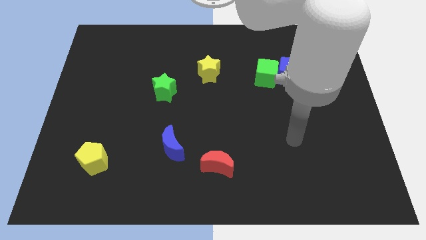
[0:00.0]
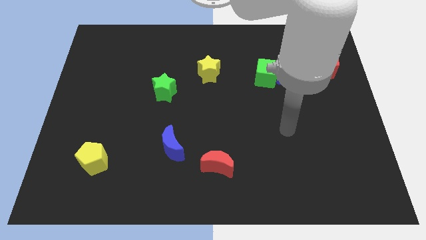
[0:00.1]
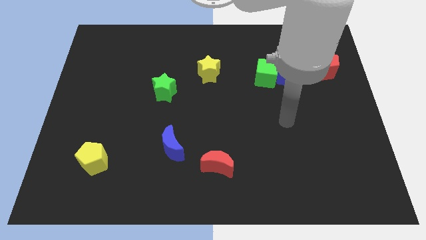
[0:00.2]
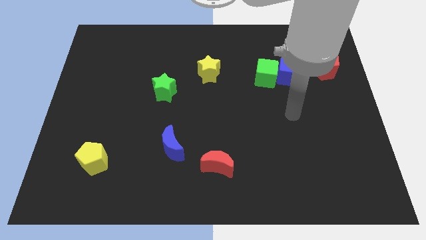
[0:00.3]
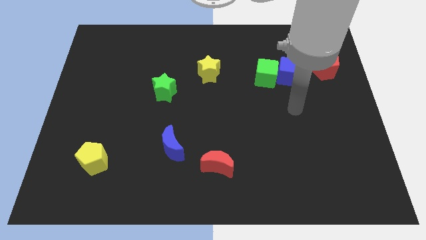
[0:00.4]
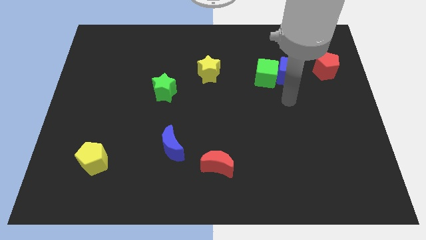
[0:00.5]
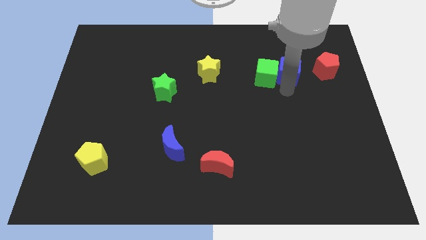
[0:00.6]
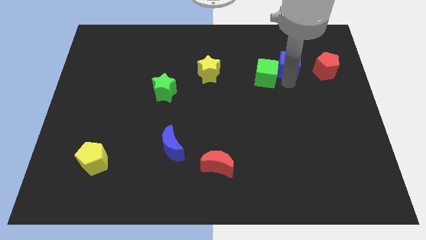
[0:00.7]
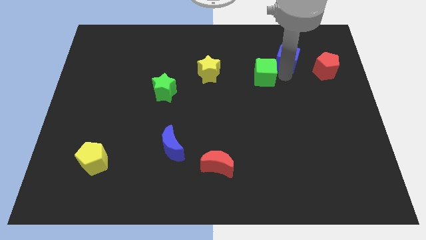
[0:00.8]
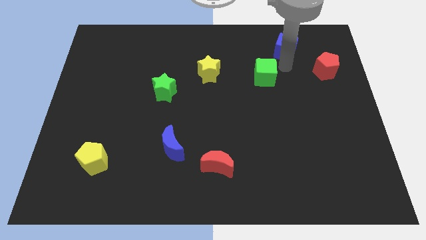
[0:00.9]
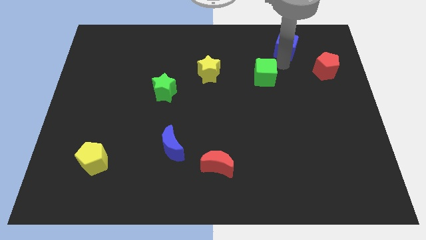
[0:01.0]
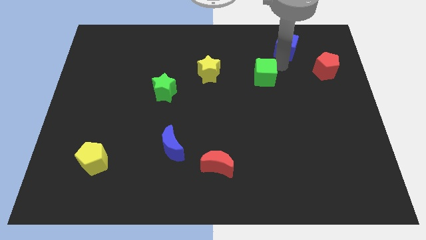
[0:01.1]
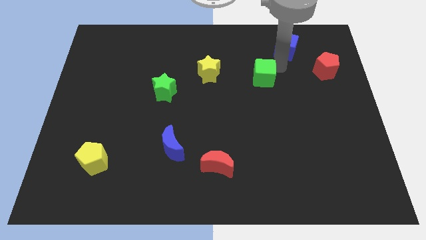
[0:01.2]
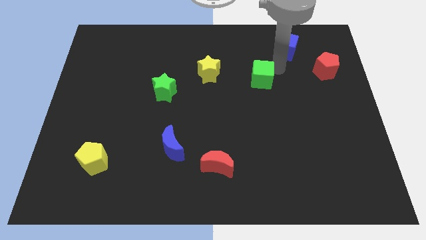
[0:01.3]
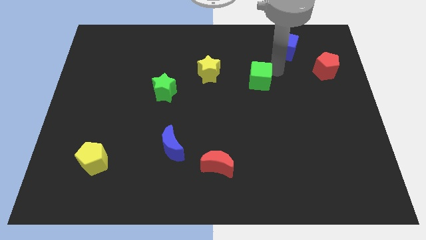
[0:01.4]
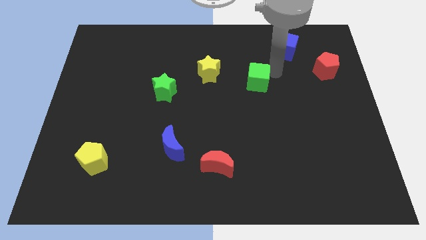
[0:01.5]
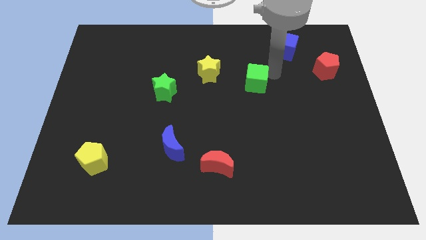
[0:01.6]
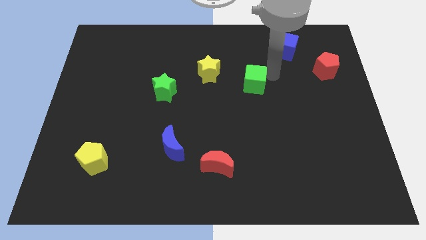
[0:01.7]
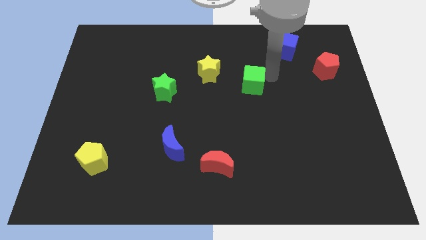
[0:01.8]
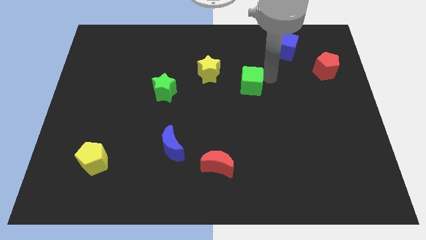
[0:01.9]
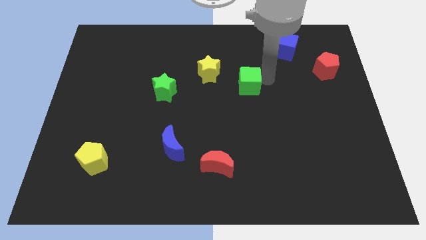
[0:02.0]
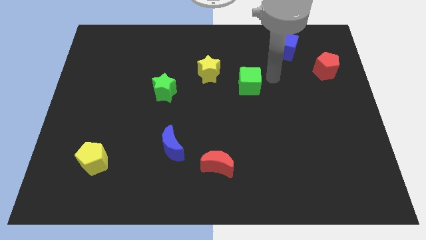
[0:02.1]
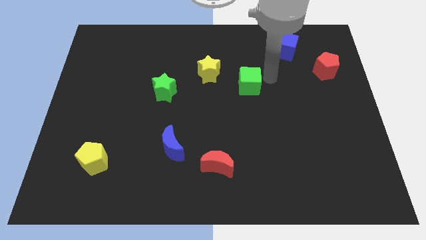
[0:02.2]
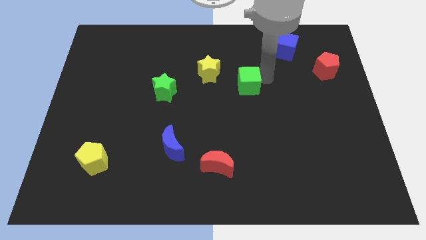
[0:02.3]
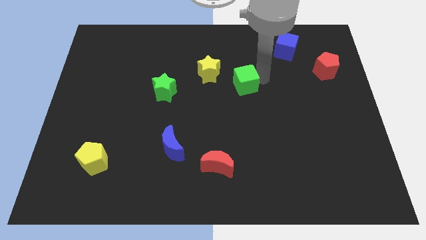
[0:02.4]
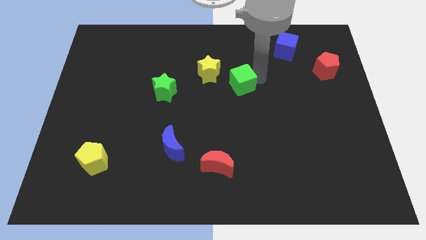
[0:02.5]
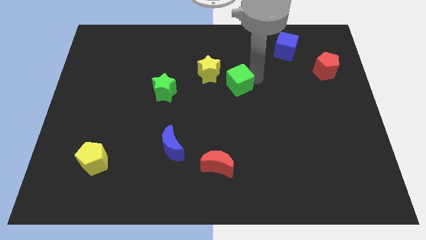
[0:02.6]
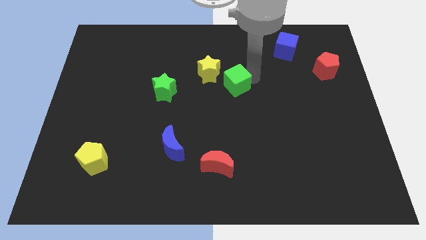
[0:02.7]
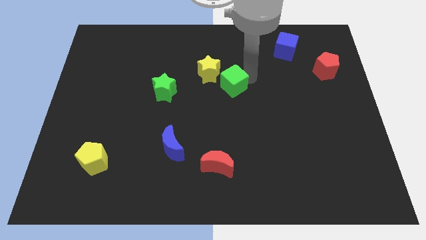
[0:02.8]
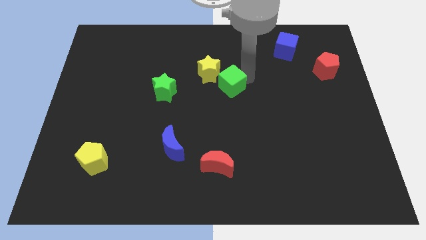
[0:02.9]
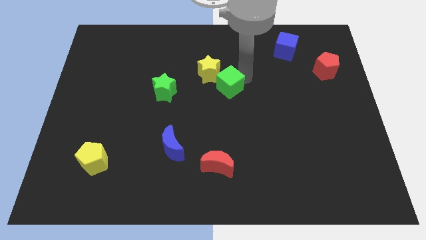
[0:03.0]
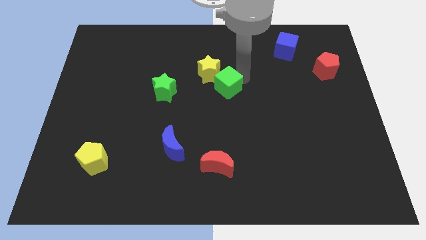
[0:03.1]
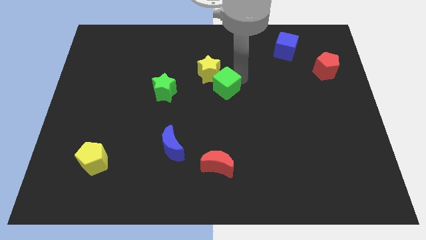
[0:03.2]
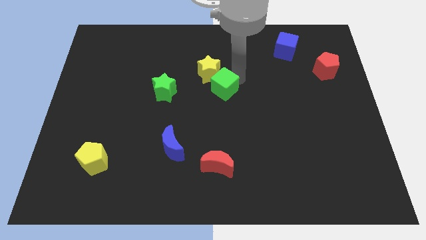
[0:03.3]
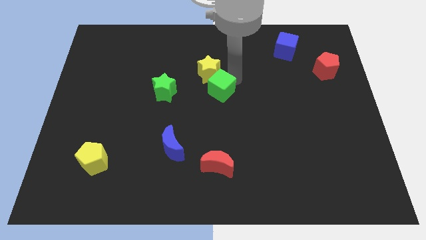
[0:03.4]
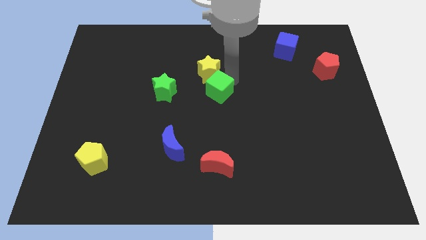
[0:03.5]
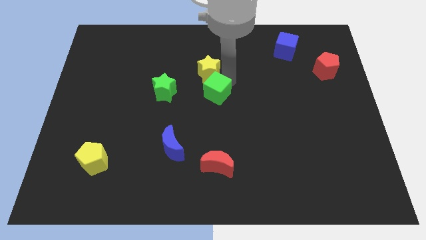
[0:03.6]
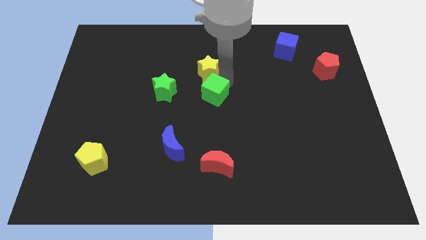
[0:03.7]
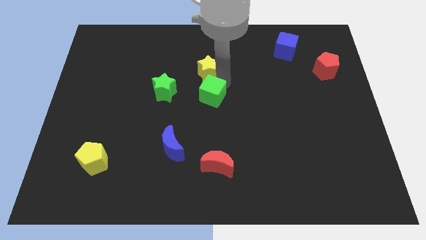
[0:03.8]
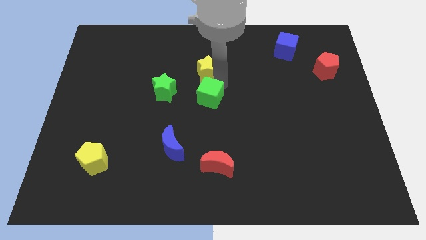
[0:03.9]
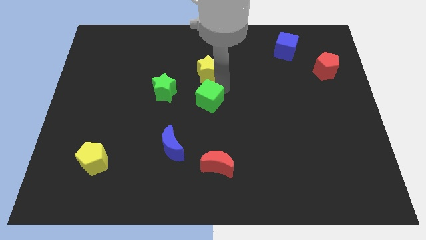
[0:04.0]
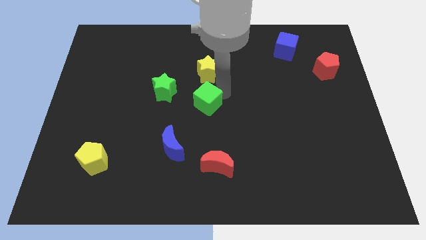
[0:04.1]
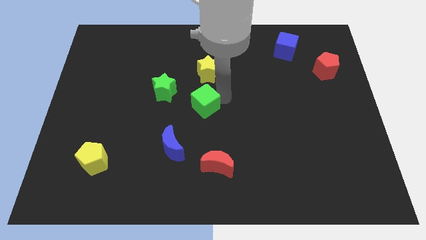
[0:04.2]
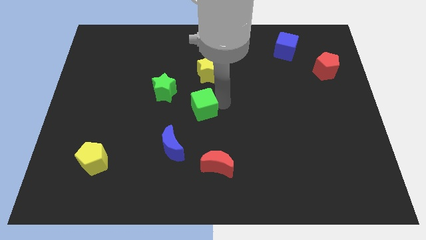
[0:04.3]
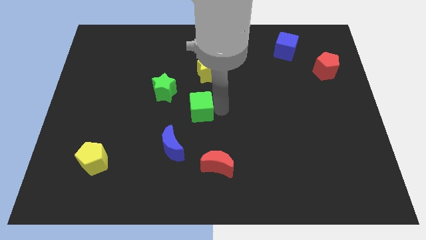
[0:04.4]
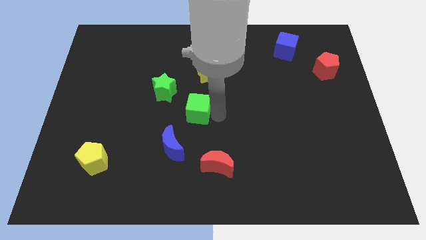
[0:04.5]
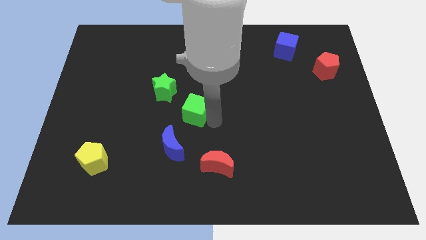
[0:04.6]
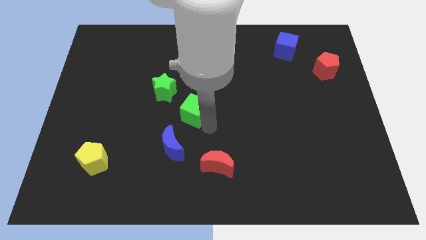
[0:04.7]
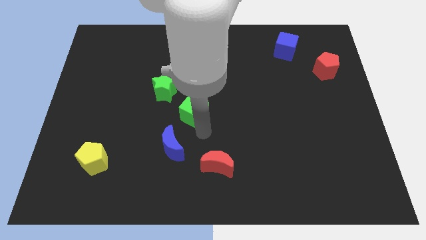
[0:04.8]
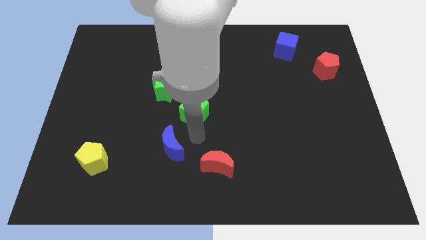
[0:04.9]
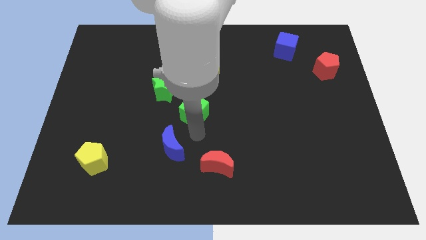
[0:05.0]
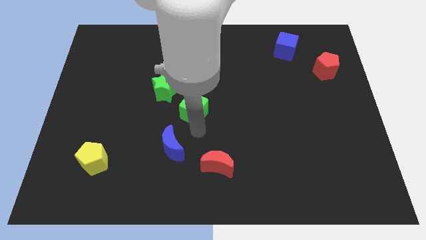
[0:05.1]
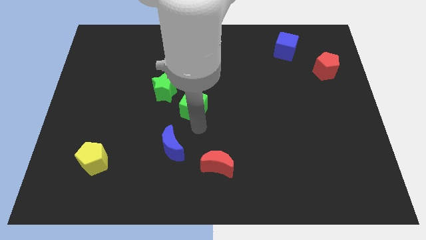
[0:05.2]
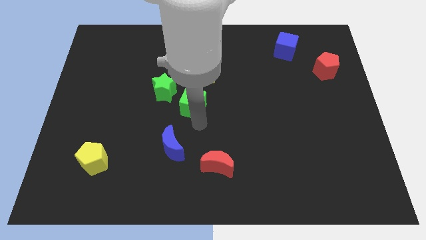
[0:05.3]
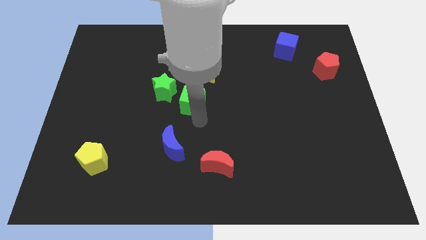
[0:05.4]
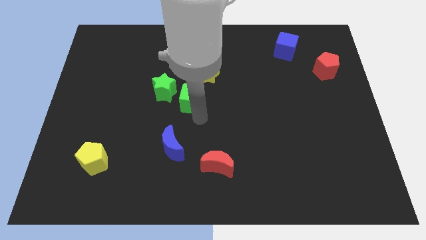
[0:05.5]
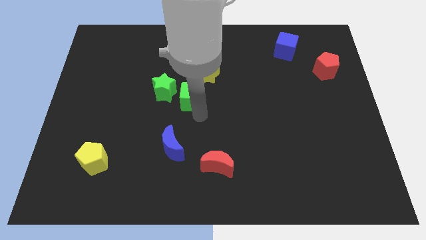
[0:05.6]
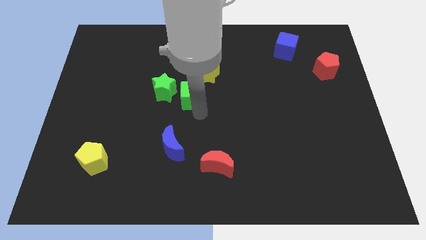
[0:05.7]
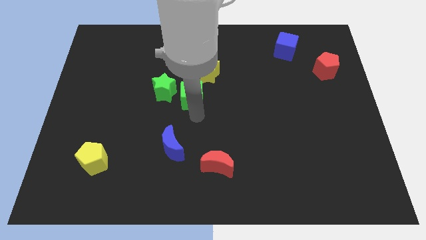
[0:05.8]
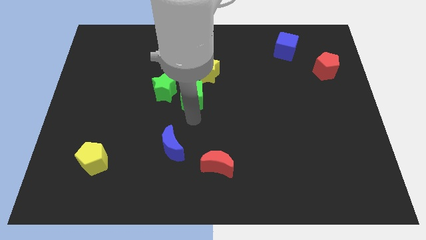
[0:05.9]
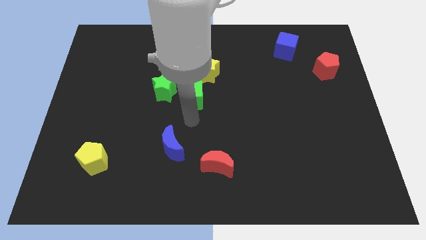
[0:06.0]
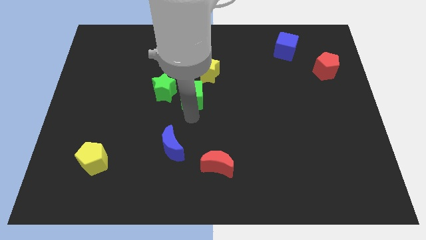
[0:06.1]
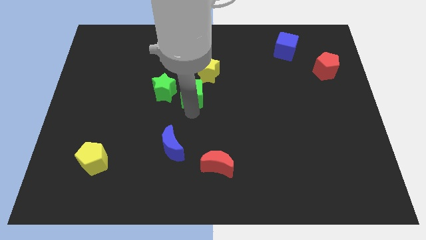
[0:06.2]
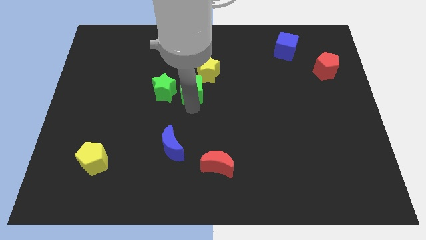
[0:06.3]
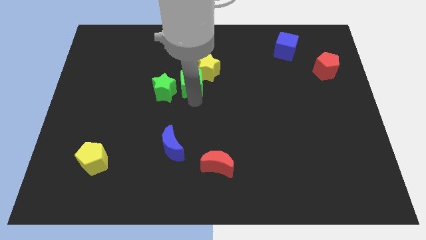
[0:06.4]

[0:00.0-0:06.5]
push the green cube to the left side of the yellow star
